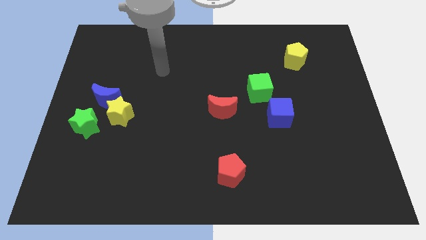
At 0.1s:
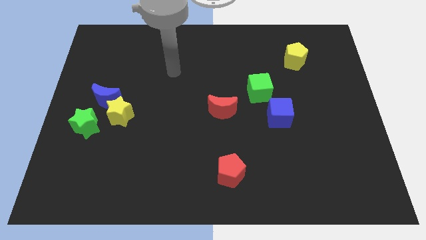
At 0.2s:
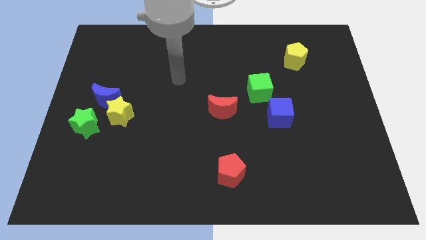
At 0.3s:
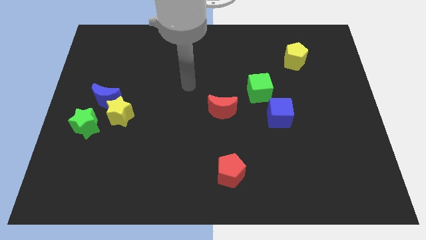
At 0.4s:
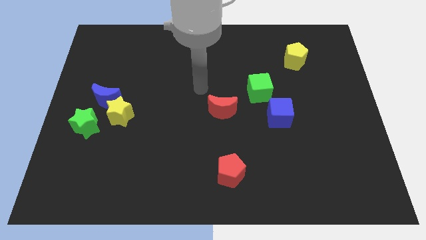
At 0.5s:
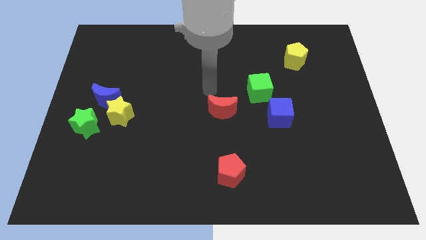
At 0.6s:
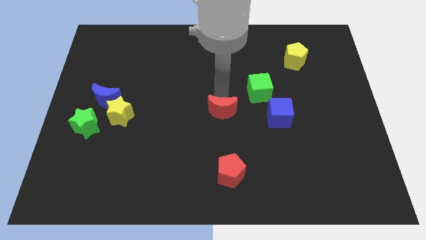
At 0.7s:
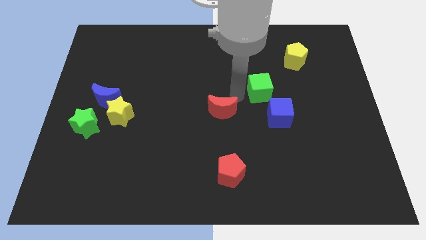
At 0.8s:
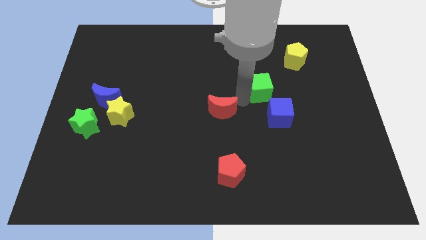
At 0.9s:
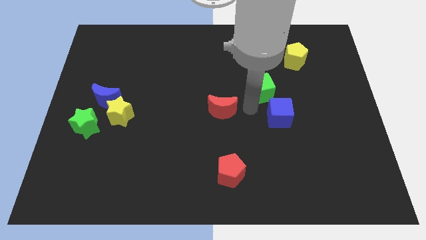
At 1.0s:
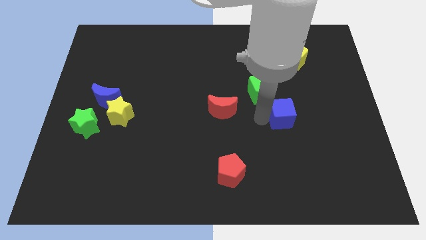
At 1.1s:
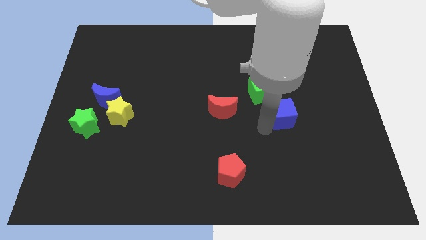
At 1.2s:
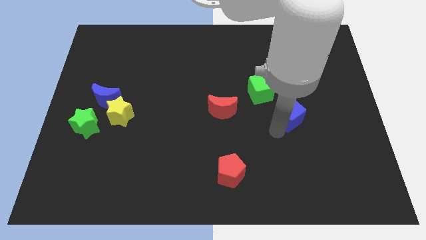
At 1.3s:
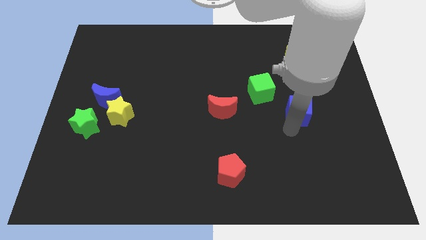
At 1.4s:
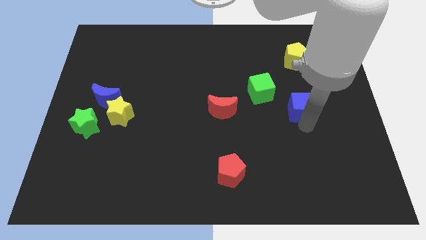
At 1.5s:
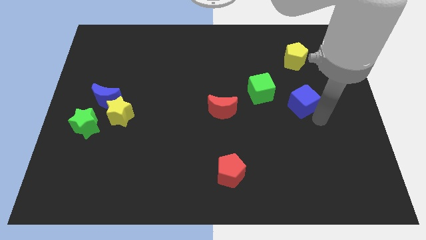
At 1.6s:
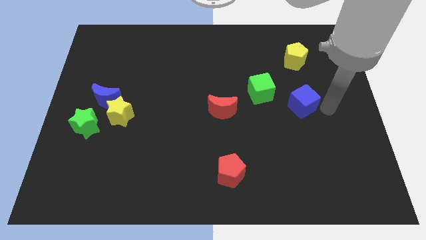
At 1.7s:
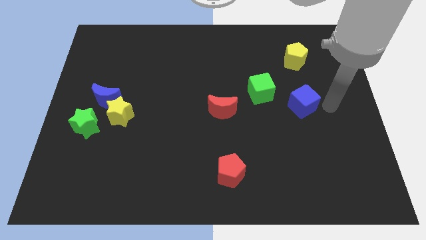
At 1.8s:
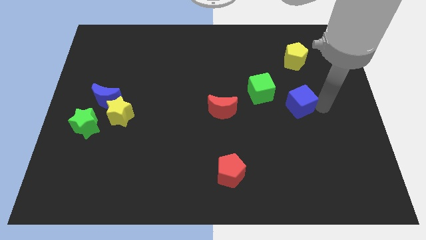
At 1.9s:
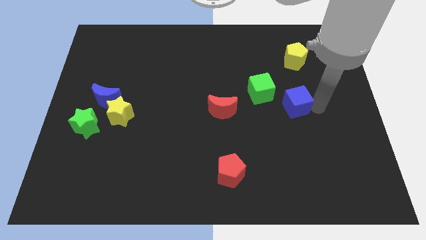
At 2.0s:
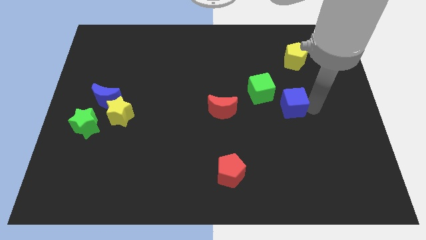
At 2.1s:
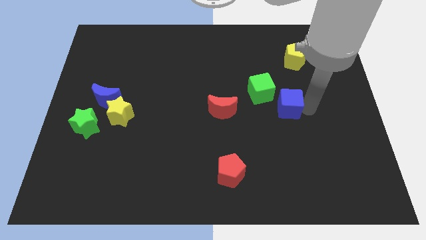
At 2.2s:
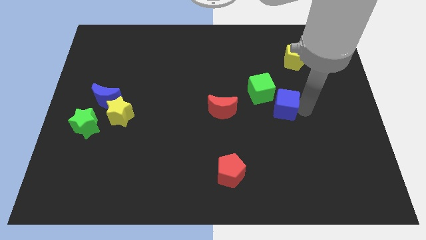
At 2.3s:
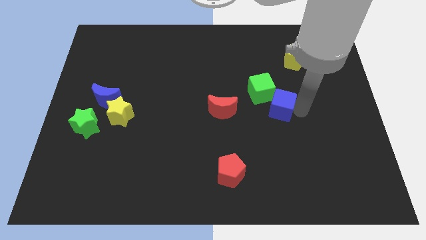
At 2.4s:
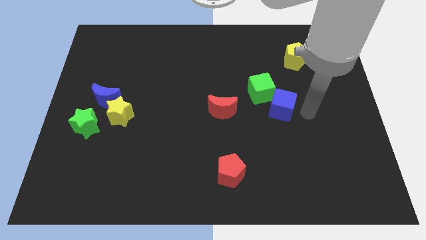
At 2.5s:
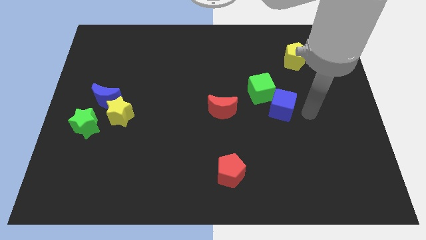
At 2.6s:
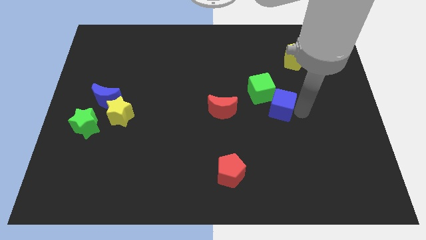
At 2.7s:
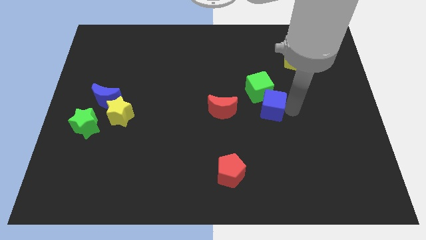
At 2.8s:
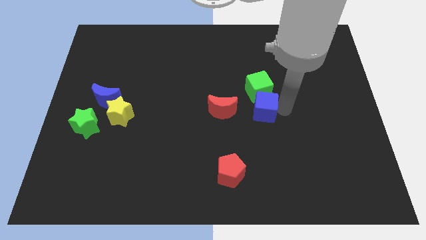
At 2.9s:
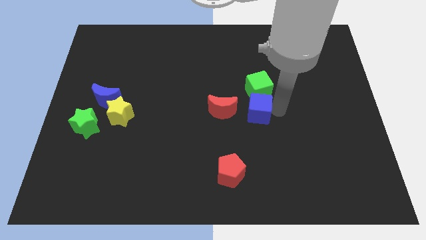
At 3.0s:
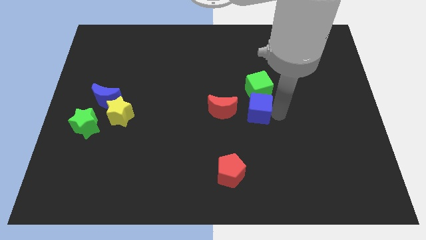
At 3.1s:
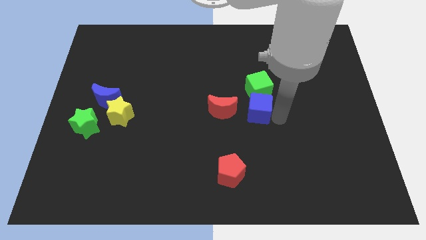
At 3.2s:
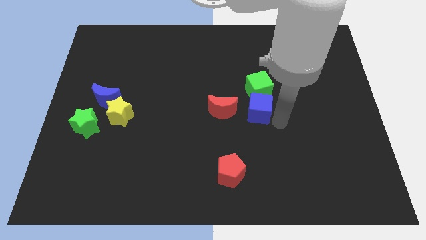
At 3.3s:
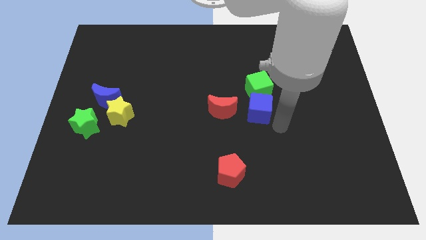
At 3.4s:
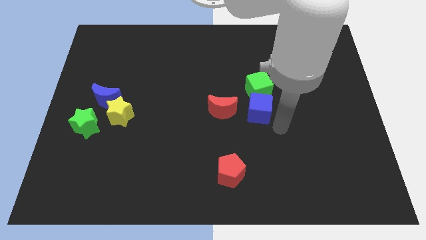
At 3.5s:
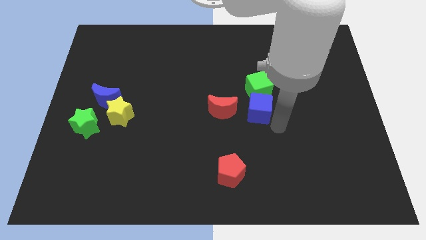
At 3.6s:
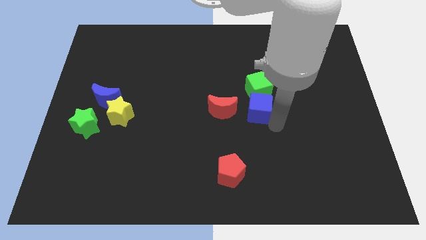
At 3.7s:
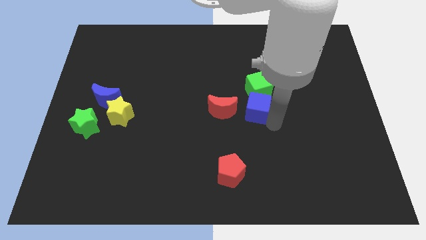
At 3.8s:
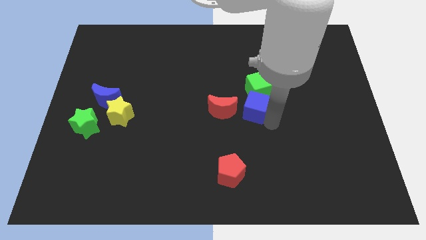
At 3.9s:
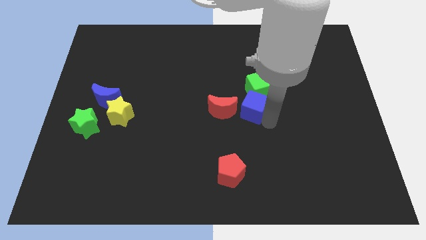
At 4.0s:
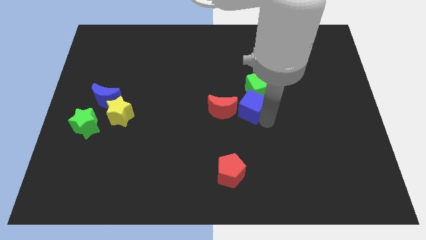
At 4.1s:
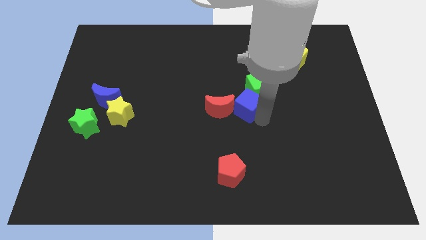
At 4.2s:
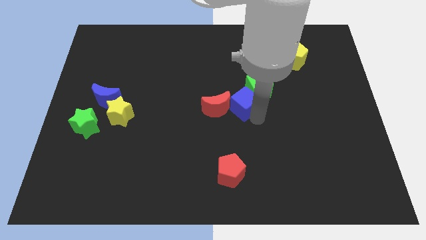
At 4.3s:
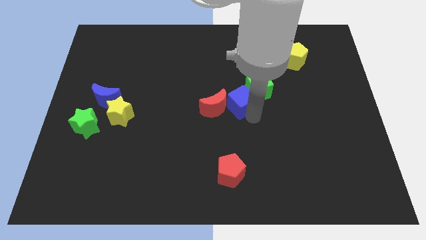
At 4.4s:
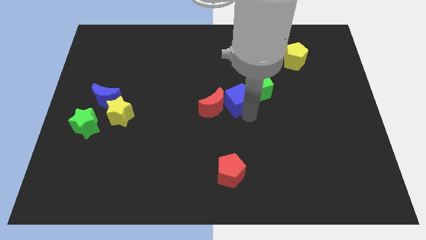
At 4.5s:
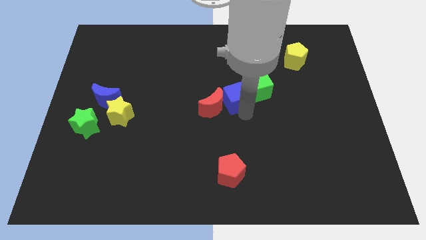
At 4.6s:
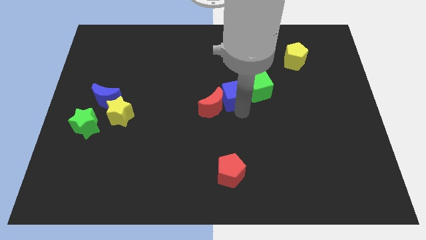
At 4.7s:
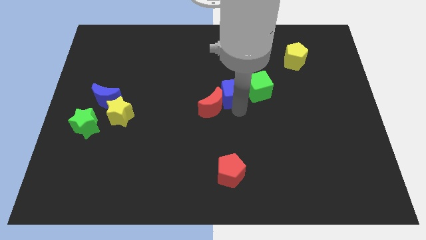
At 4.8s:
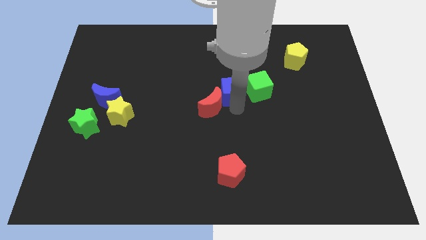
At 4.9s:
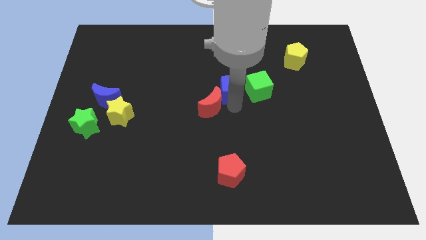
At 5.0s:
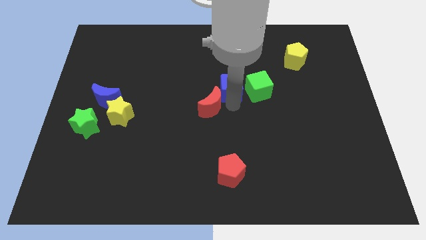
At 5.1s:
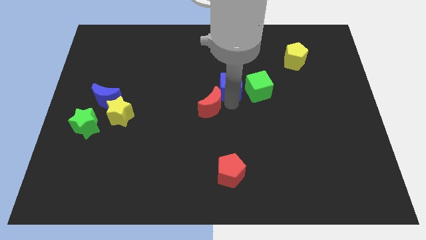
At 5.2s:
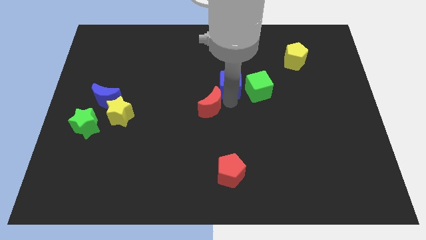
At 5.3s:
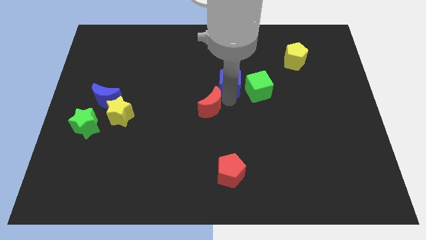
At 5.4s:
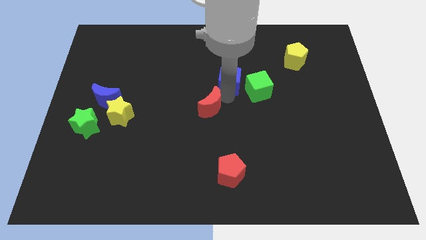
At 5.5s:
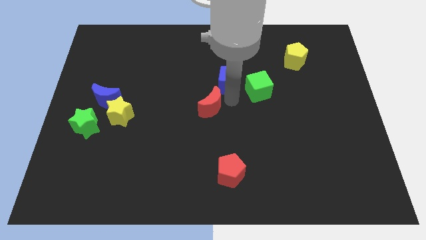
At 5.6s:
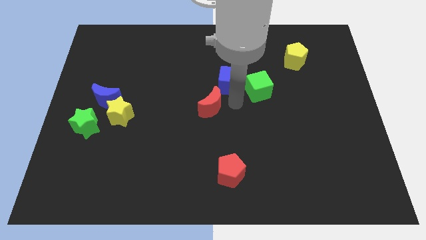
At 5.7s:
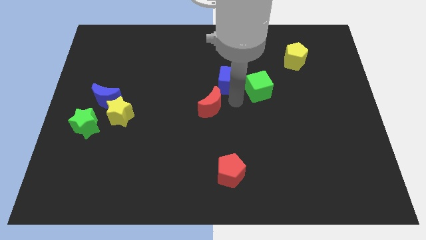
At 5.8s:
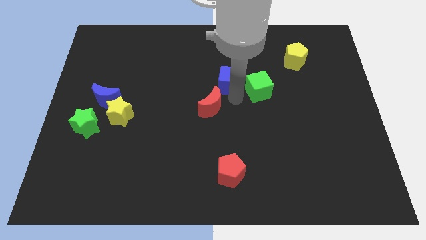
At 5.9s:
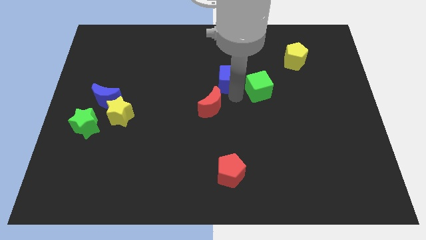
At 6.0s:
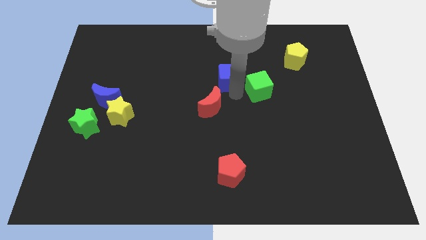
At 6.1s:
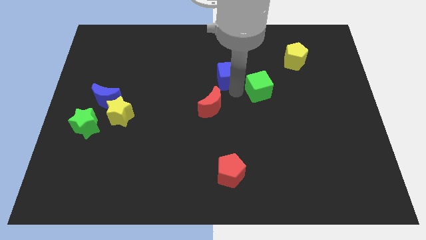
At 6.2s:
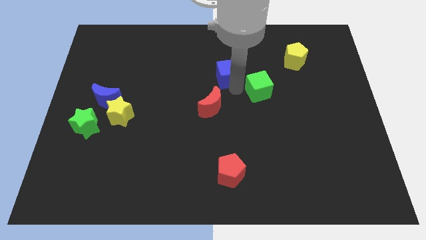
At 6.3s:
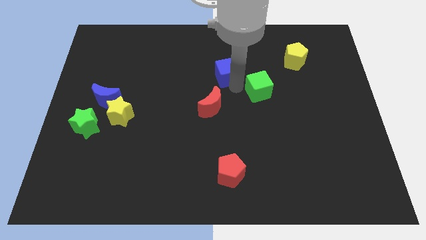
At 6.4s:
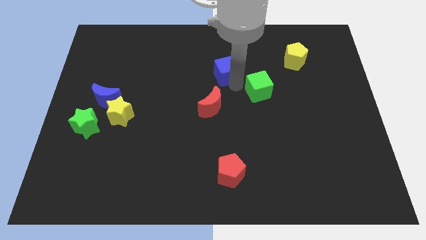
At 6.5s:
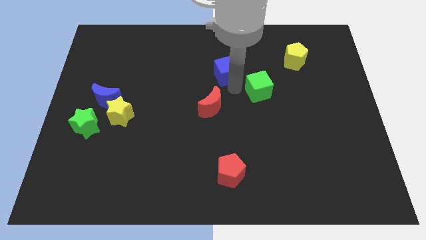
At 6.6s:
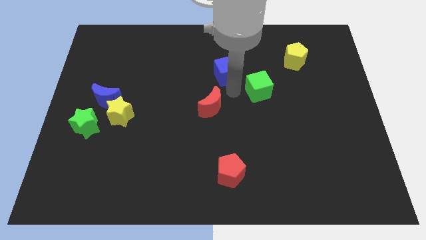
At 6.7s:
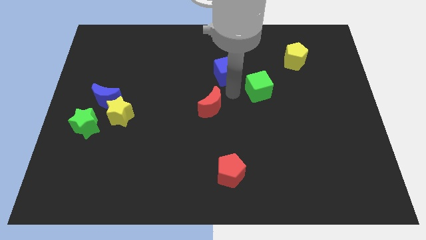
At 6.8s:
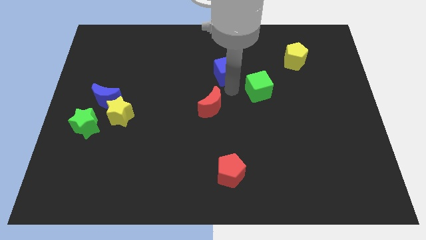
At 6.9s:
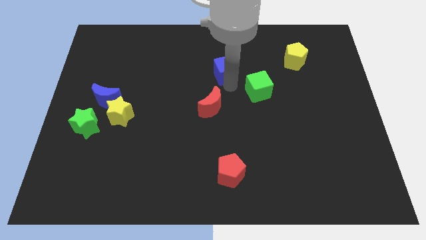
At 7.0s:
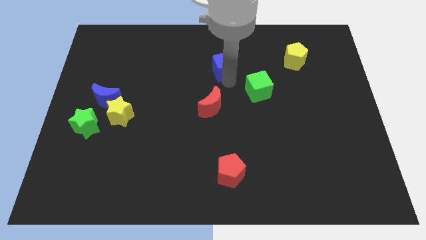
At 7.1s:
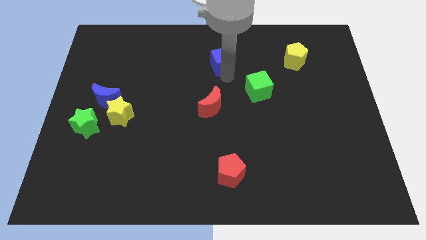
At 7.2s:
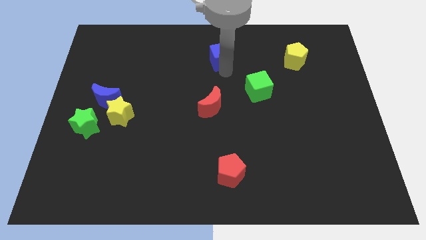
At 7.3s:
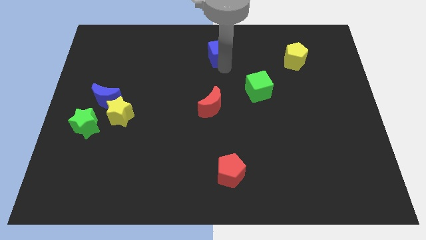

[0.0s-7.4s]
move the blue cube to the towards your base

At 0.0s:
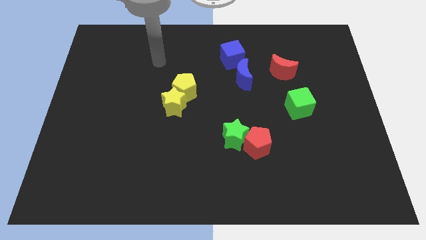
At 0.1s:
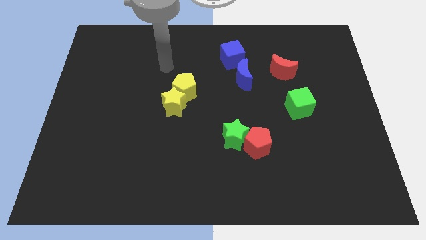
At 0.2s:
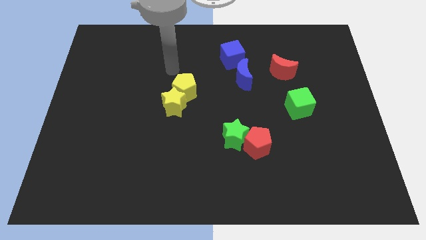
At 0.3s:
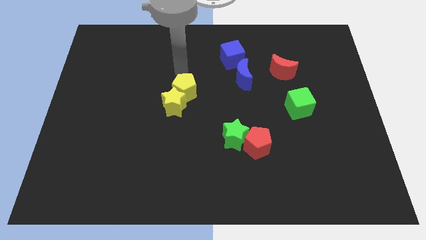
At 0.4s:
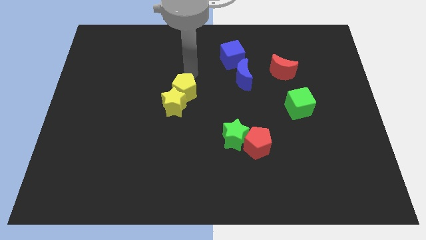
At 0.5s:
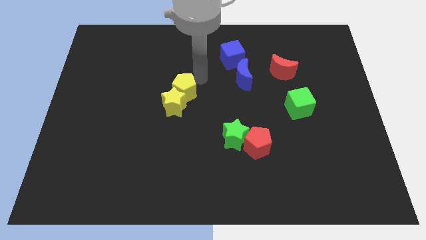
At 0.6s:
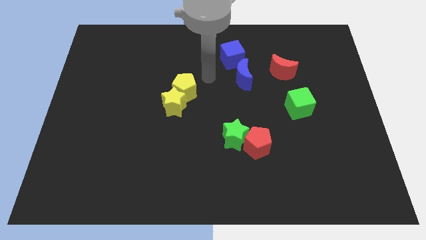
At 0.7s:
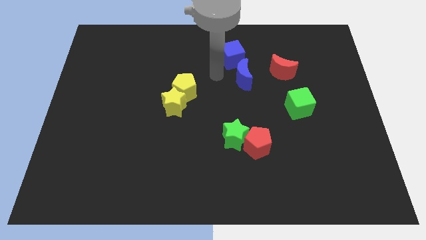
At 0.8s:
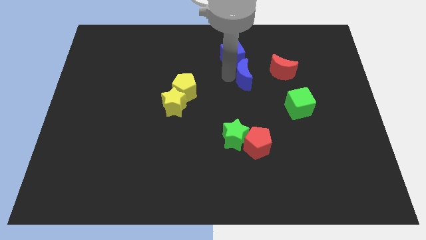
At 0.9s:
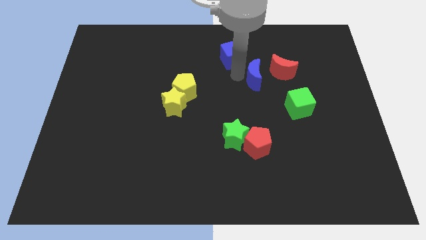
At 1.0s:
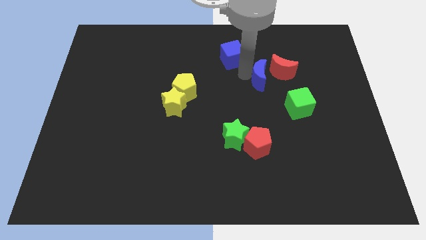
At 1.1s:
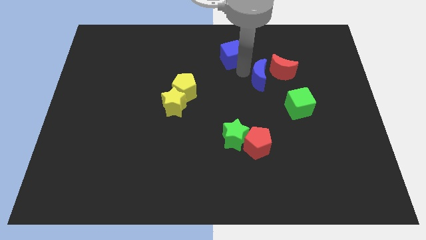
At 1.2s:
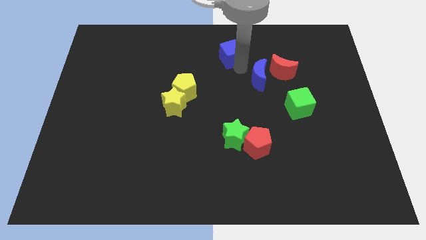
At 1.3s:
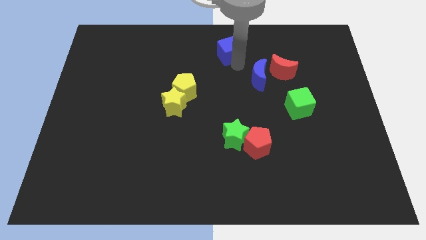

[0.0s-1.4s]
push the blue cube to the top side
